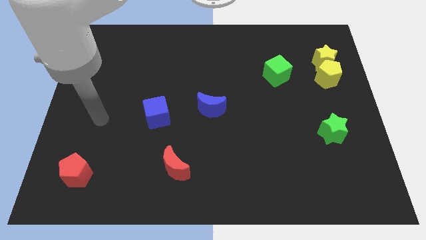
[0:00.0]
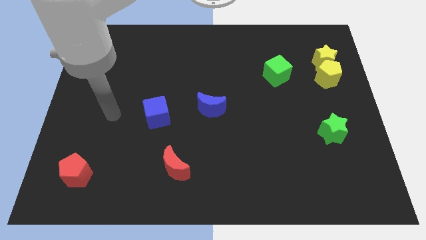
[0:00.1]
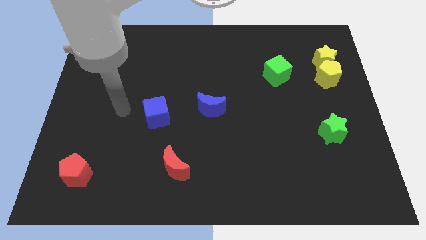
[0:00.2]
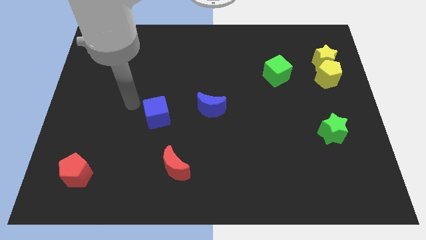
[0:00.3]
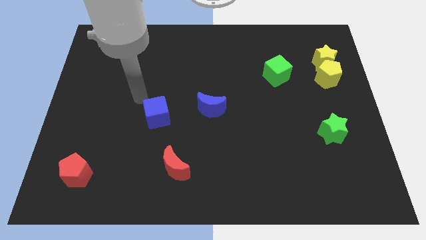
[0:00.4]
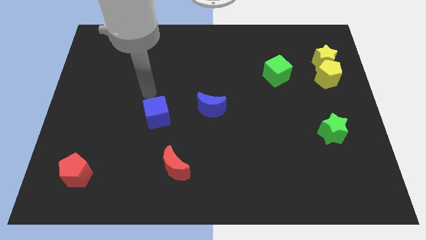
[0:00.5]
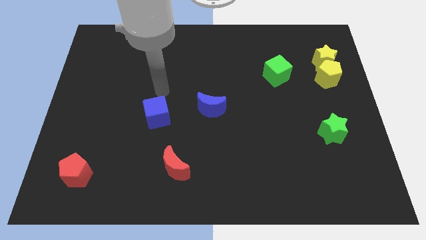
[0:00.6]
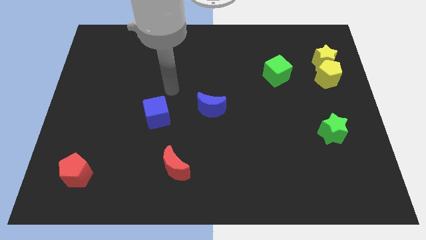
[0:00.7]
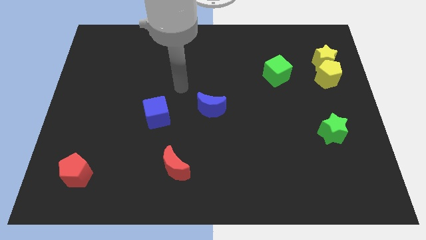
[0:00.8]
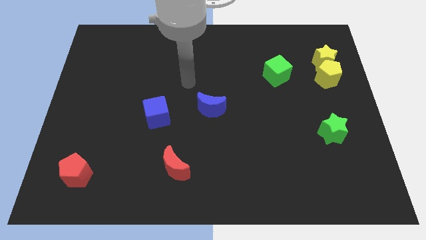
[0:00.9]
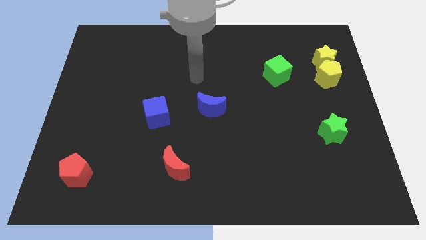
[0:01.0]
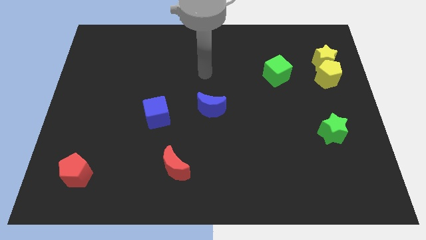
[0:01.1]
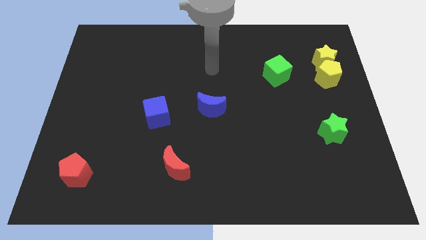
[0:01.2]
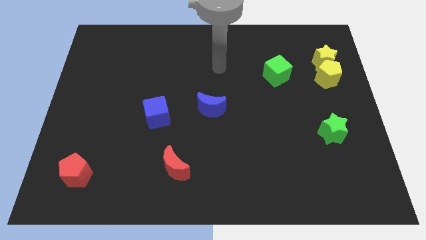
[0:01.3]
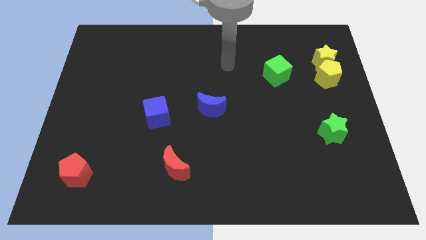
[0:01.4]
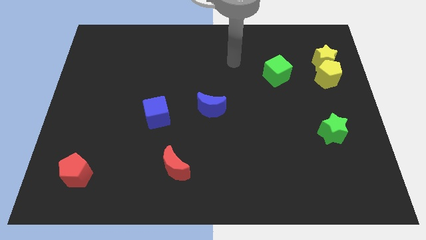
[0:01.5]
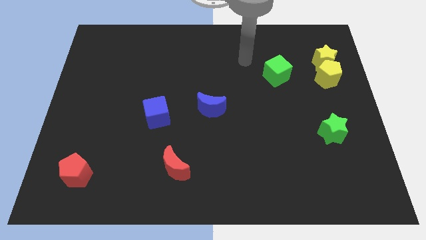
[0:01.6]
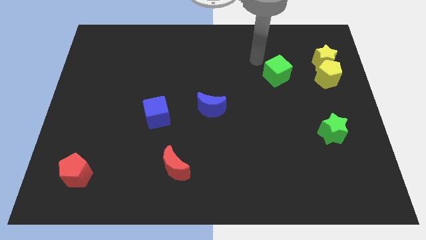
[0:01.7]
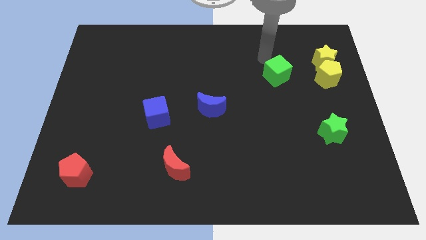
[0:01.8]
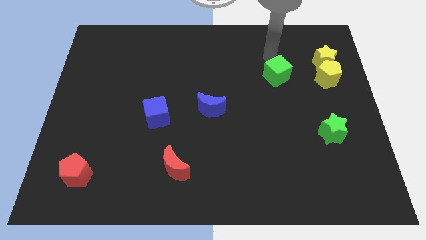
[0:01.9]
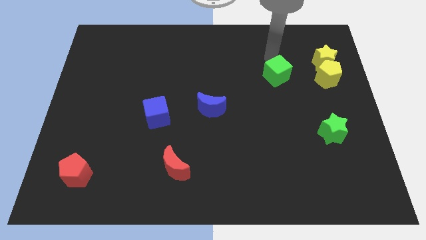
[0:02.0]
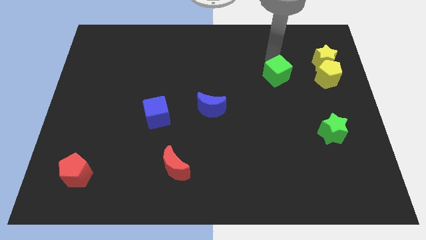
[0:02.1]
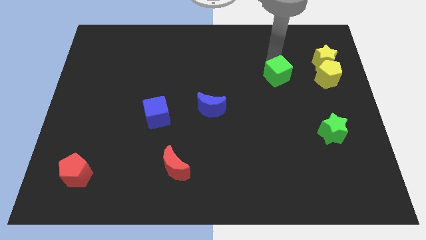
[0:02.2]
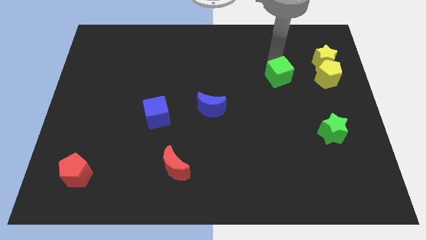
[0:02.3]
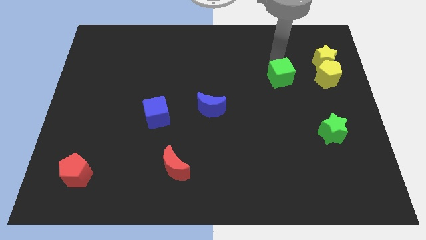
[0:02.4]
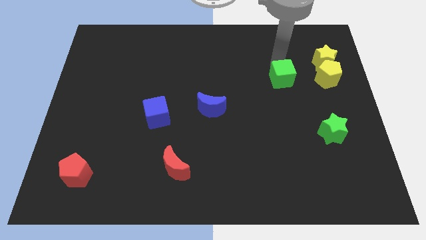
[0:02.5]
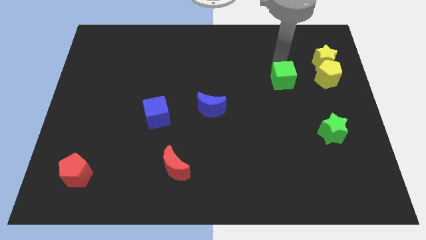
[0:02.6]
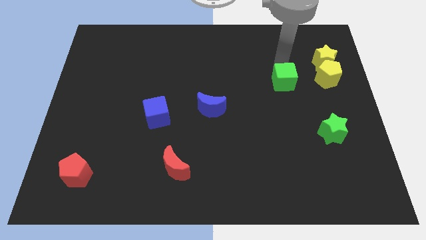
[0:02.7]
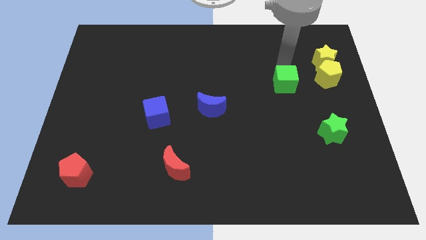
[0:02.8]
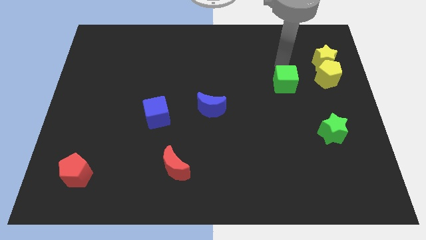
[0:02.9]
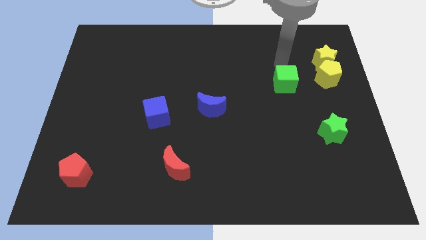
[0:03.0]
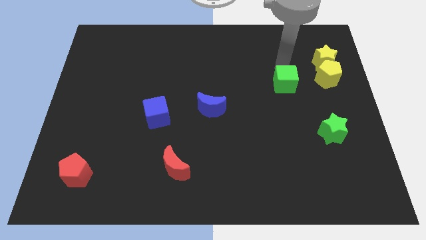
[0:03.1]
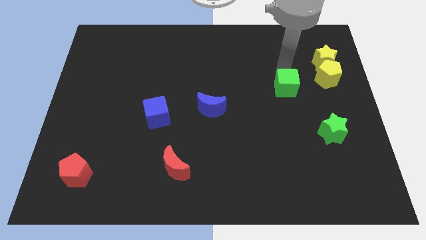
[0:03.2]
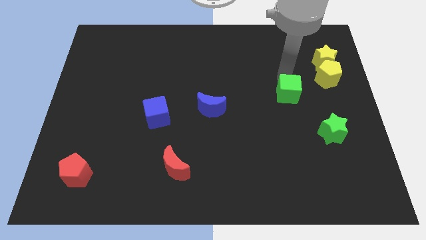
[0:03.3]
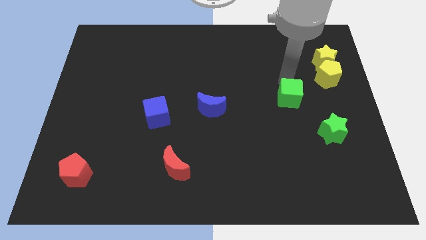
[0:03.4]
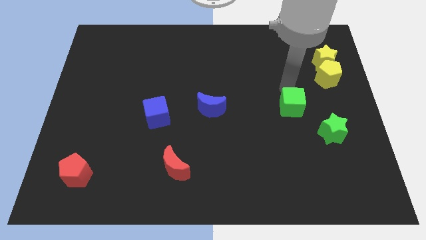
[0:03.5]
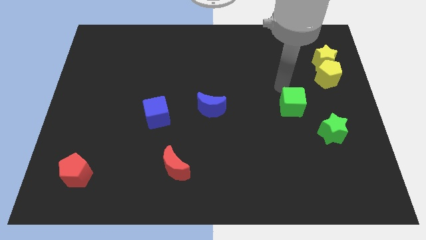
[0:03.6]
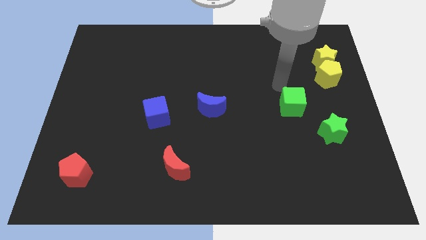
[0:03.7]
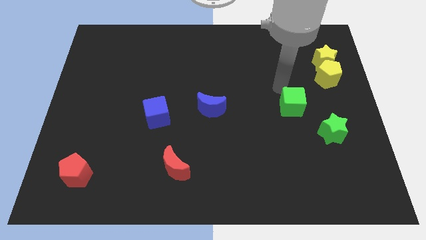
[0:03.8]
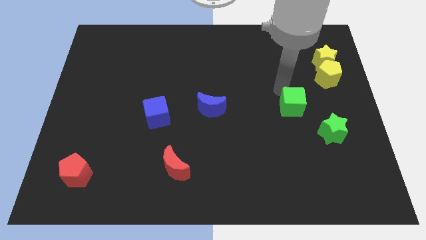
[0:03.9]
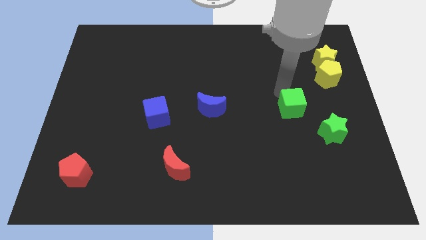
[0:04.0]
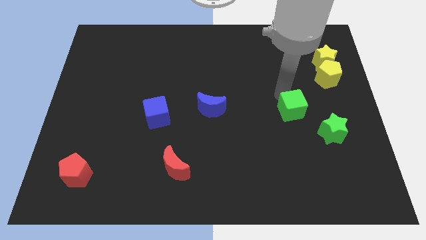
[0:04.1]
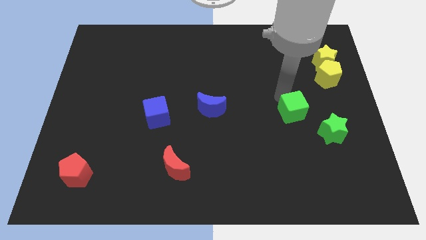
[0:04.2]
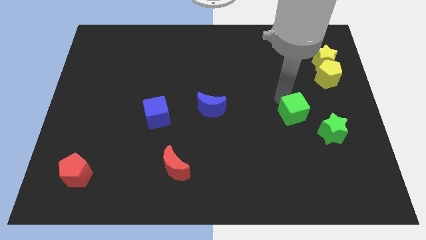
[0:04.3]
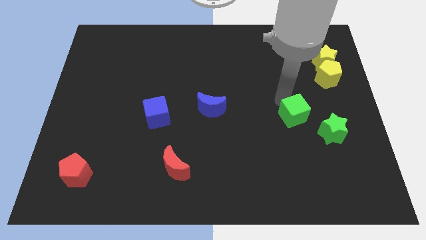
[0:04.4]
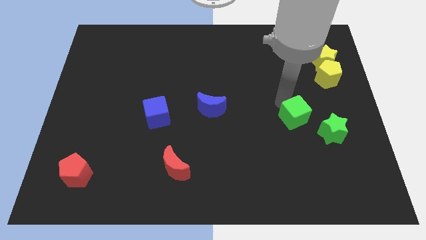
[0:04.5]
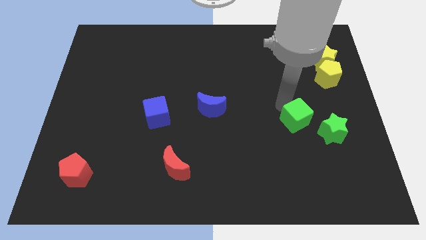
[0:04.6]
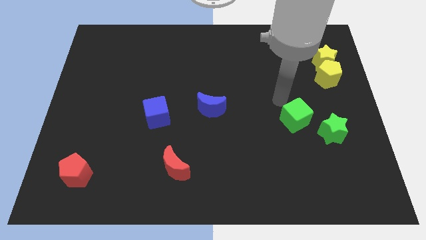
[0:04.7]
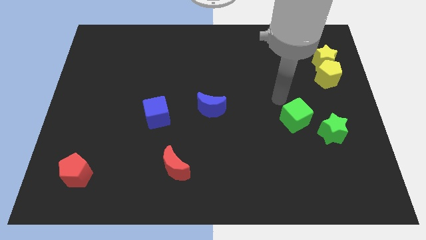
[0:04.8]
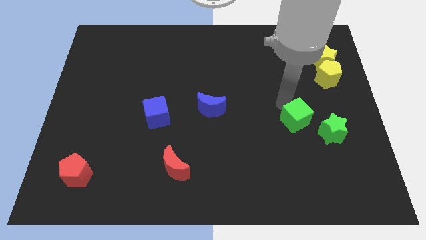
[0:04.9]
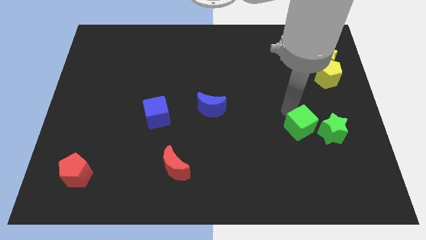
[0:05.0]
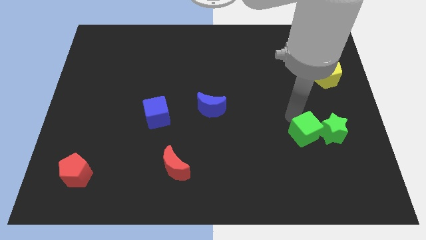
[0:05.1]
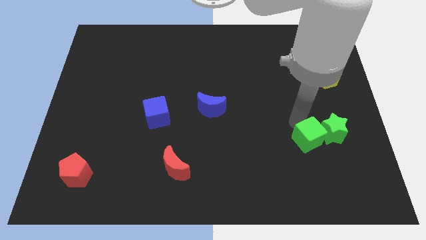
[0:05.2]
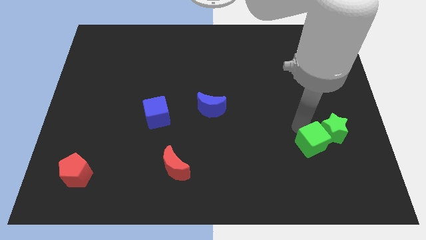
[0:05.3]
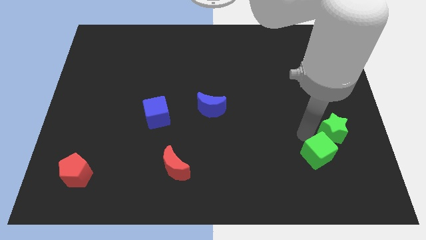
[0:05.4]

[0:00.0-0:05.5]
slide the green cube to the bottom side of the green star

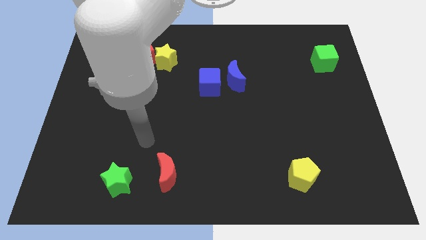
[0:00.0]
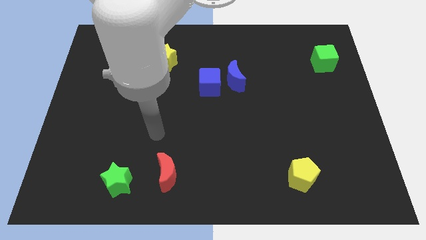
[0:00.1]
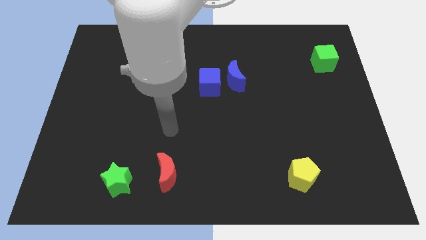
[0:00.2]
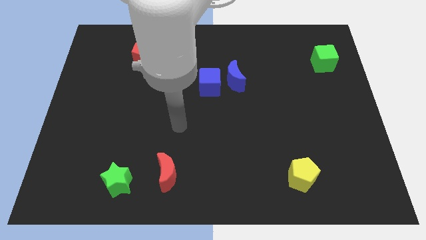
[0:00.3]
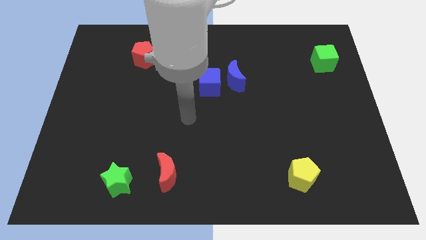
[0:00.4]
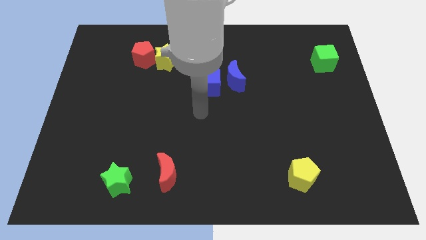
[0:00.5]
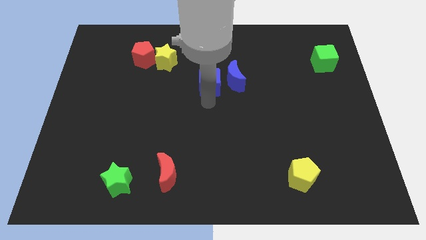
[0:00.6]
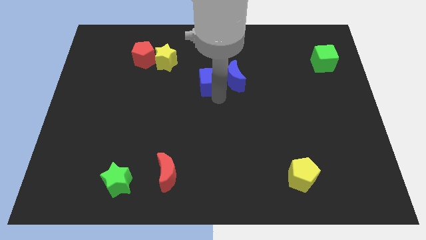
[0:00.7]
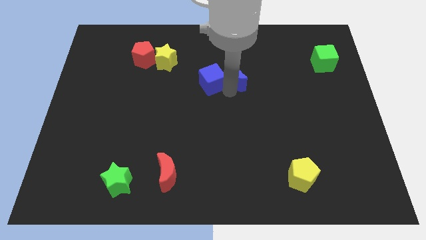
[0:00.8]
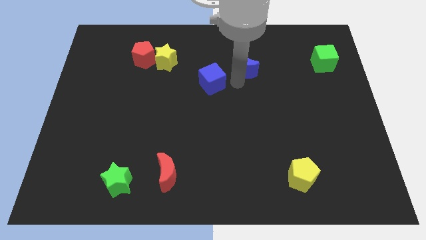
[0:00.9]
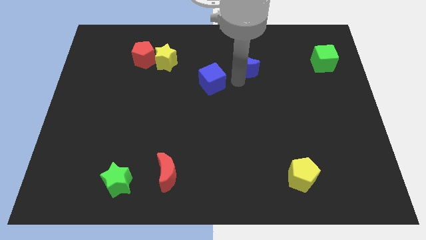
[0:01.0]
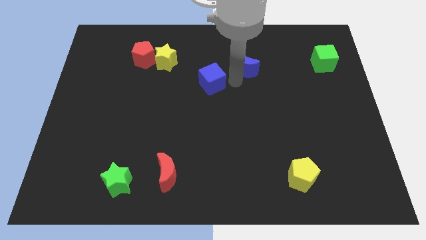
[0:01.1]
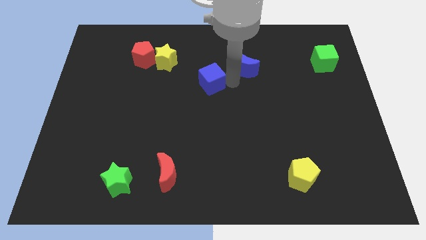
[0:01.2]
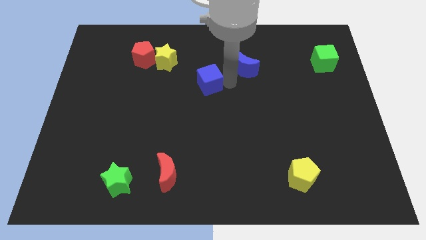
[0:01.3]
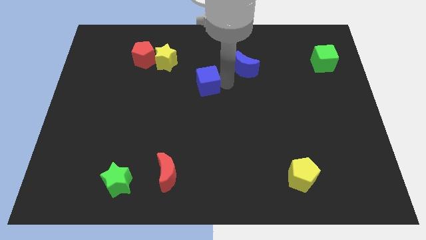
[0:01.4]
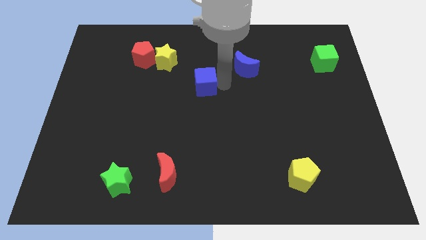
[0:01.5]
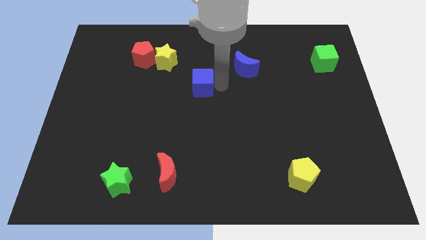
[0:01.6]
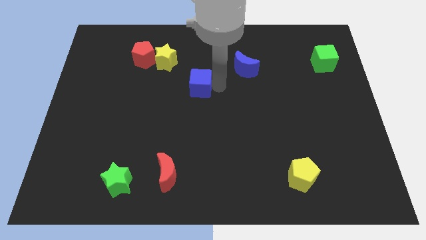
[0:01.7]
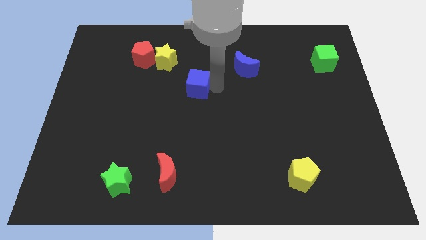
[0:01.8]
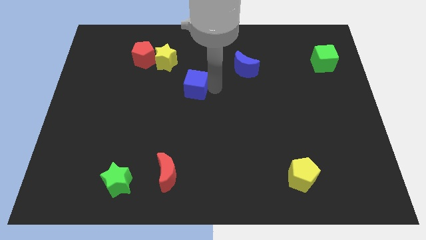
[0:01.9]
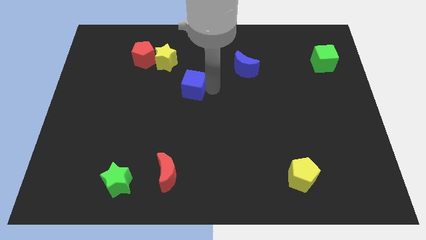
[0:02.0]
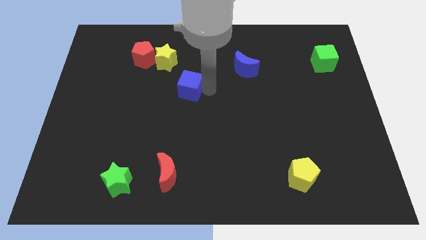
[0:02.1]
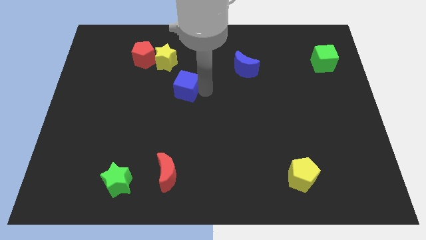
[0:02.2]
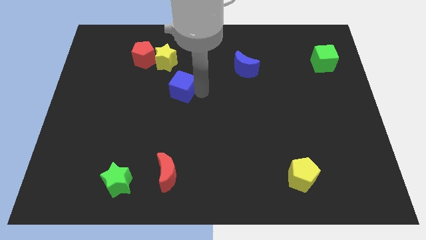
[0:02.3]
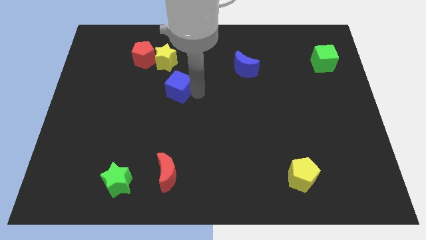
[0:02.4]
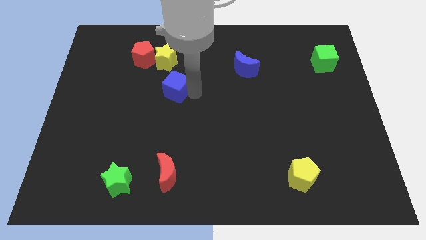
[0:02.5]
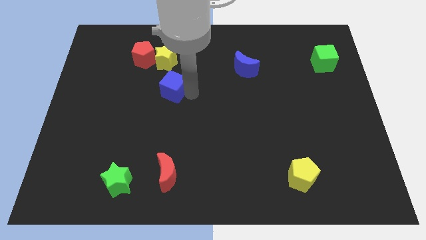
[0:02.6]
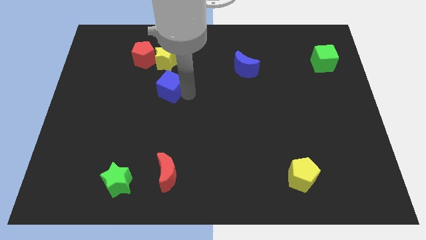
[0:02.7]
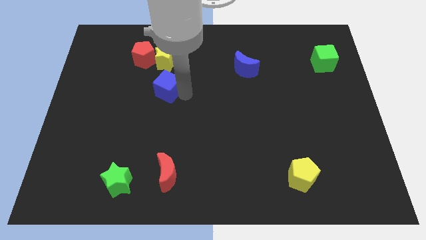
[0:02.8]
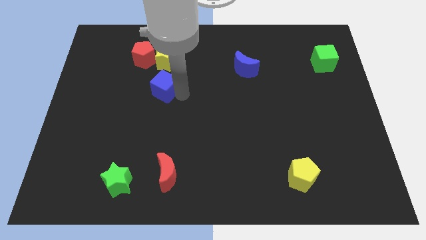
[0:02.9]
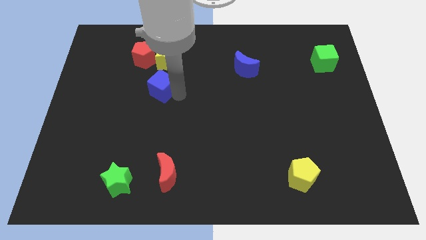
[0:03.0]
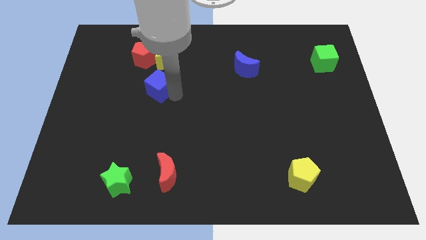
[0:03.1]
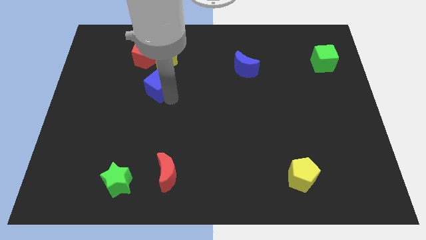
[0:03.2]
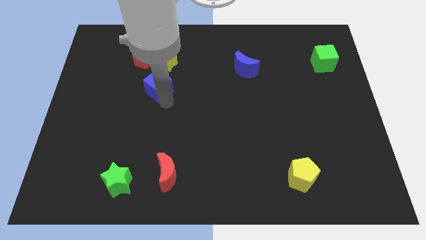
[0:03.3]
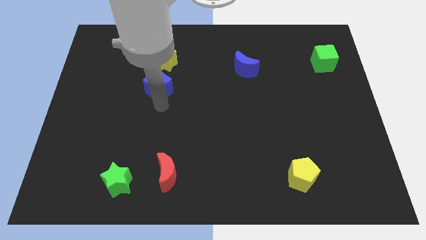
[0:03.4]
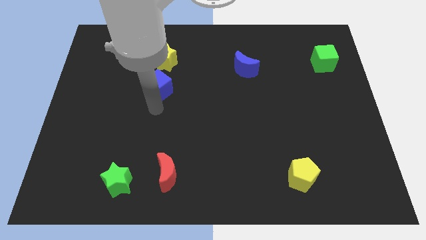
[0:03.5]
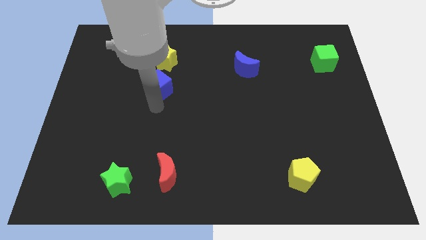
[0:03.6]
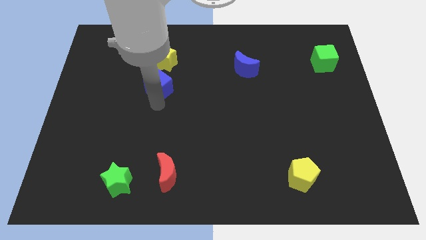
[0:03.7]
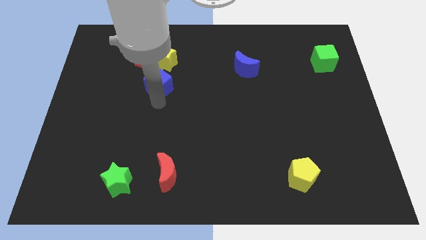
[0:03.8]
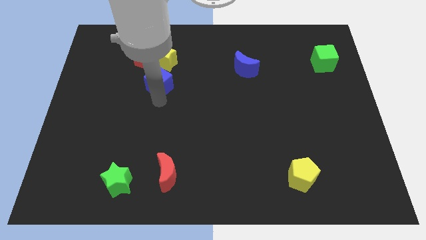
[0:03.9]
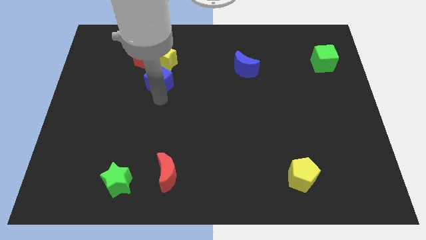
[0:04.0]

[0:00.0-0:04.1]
slide the blue cube to the bottom left of the yellow star
